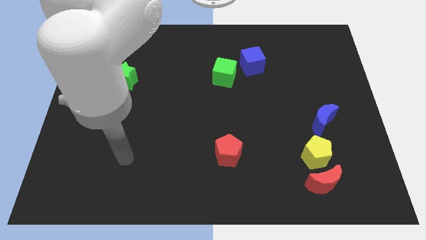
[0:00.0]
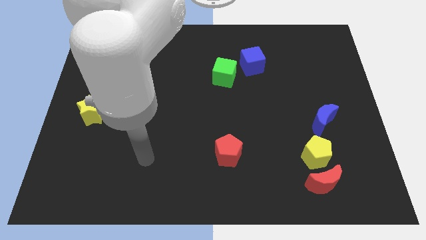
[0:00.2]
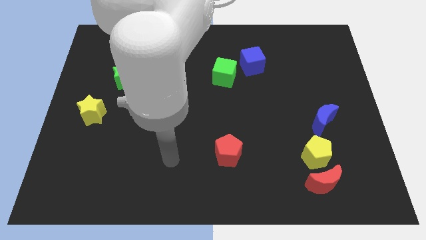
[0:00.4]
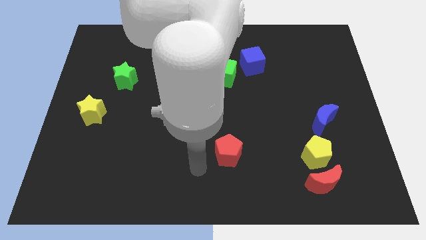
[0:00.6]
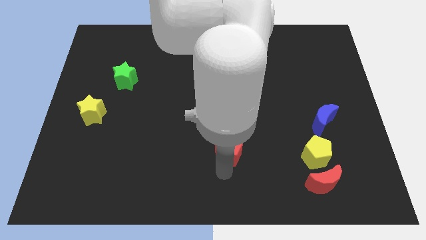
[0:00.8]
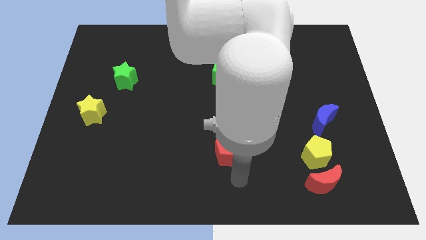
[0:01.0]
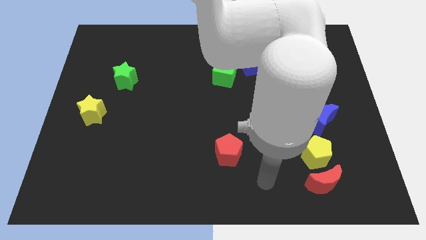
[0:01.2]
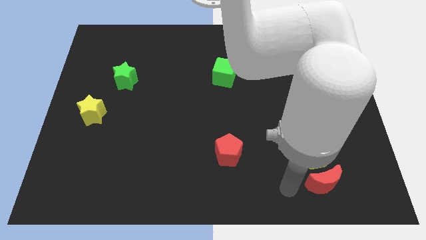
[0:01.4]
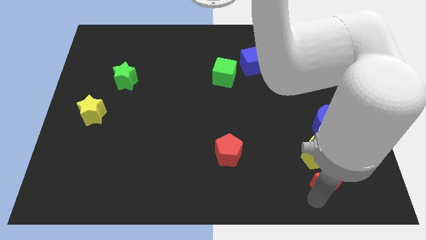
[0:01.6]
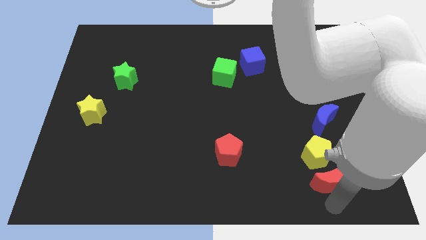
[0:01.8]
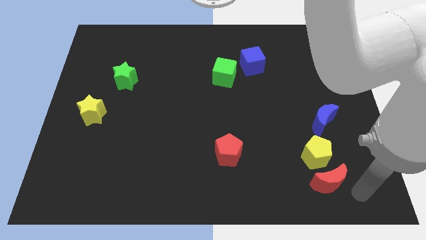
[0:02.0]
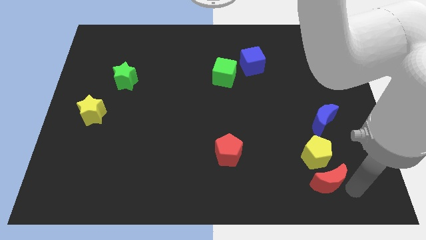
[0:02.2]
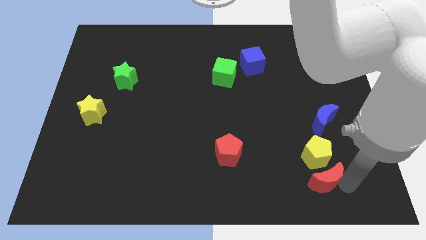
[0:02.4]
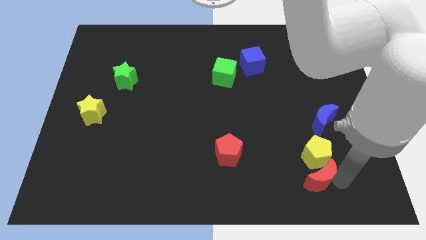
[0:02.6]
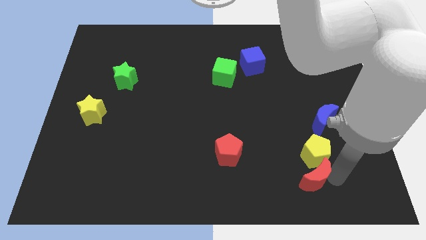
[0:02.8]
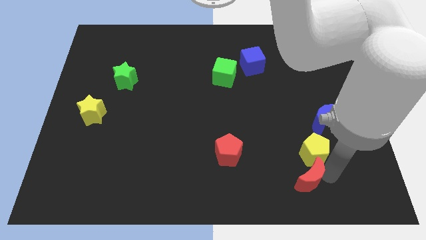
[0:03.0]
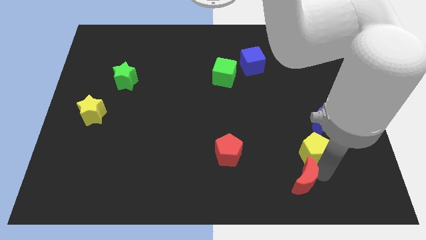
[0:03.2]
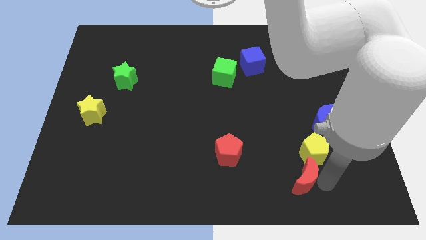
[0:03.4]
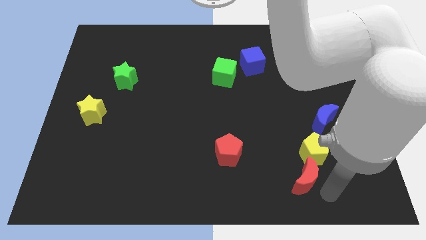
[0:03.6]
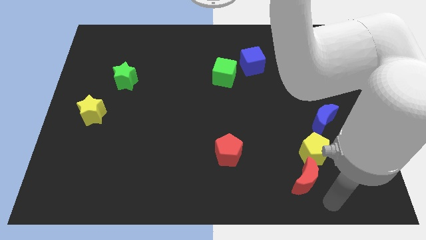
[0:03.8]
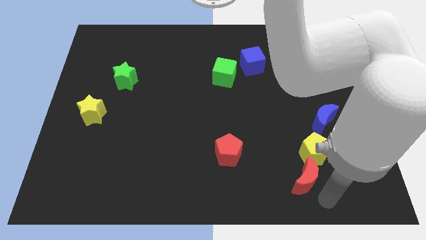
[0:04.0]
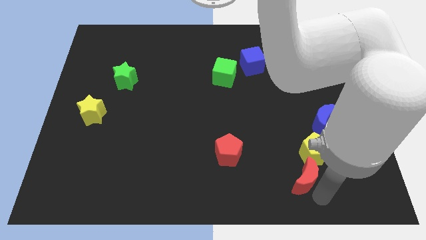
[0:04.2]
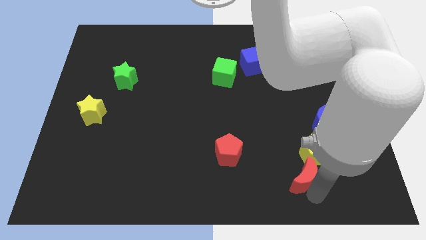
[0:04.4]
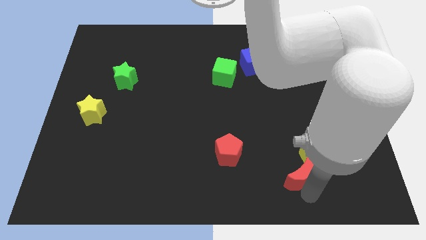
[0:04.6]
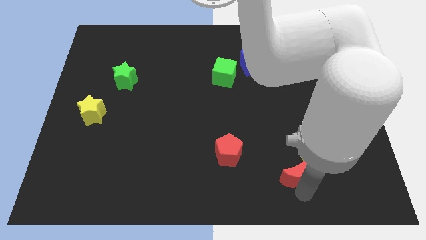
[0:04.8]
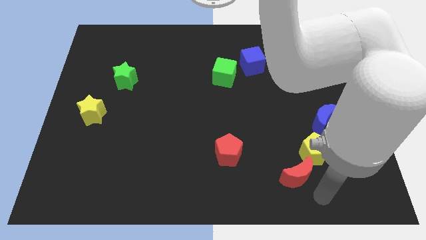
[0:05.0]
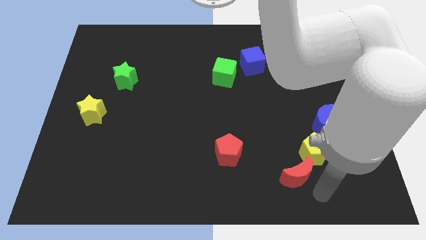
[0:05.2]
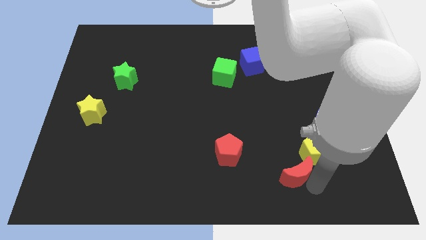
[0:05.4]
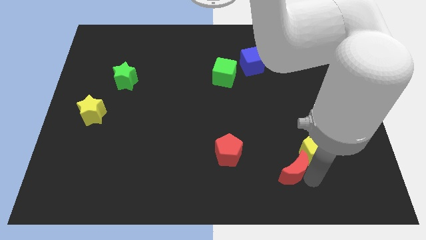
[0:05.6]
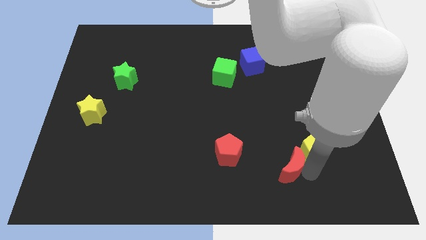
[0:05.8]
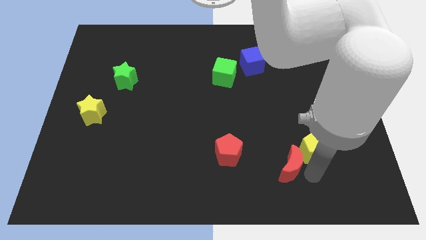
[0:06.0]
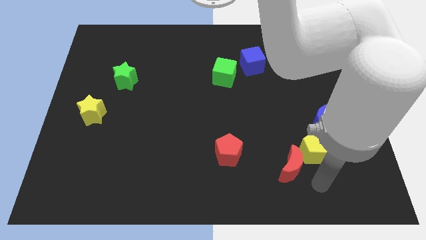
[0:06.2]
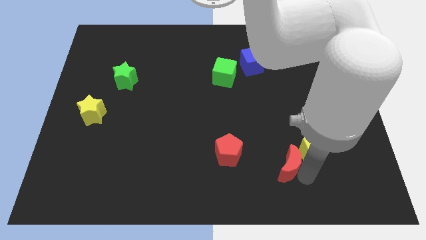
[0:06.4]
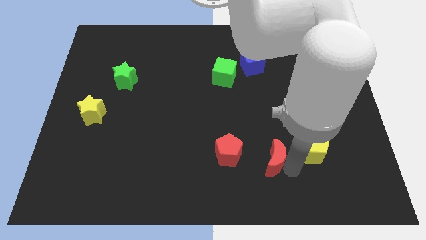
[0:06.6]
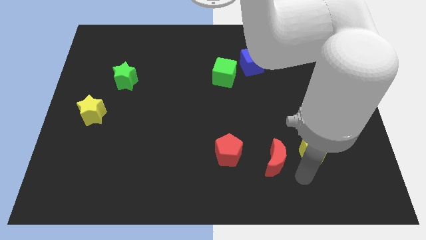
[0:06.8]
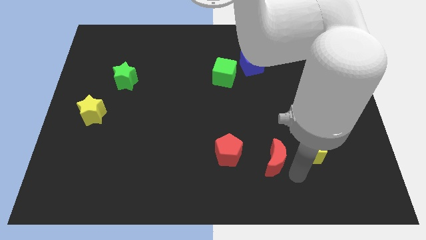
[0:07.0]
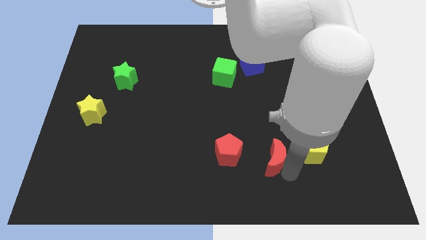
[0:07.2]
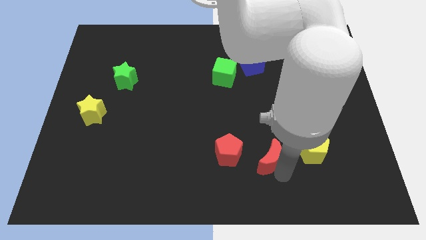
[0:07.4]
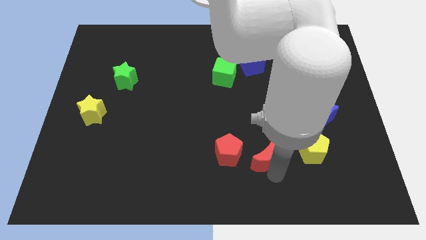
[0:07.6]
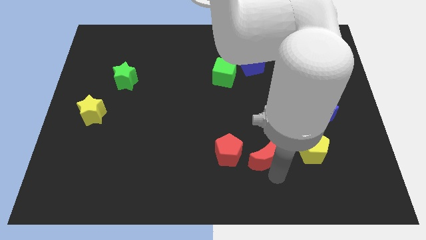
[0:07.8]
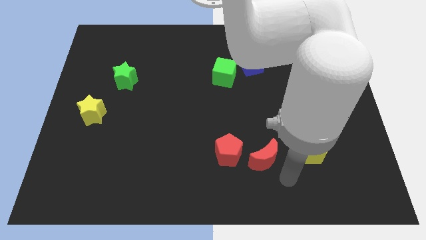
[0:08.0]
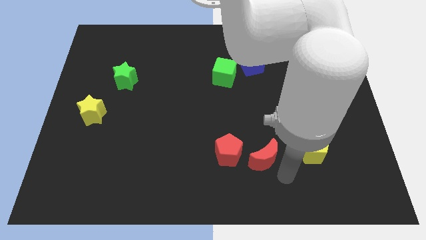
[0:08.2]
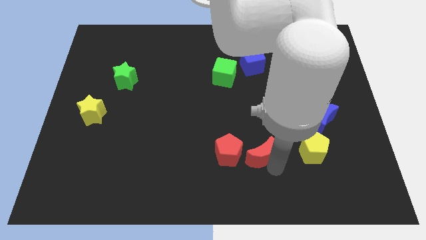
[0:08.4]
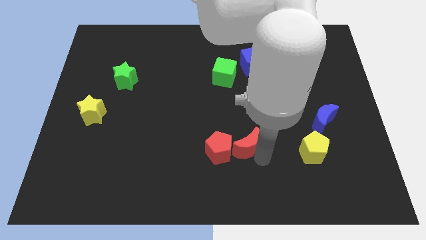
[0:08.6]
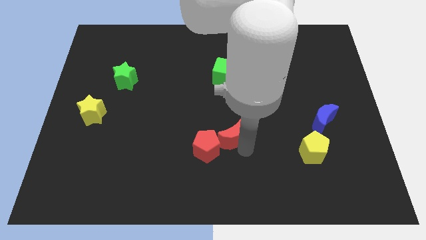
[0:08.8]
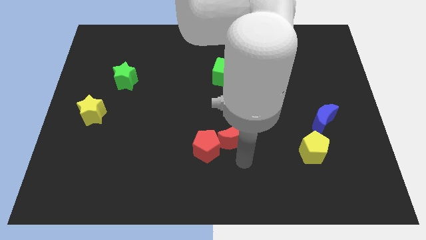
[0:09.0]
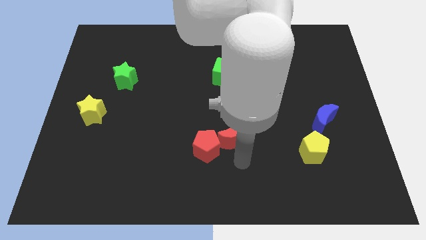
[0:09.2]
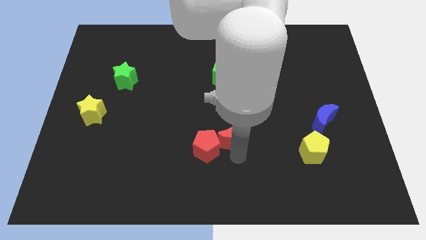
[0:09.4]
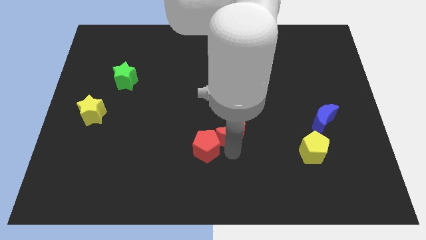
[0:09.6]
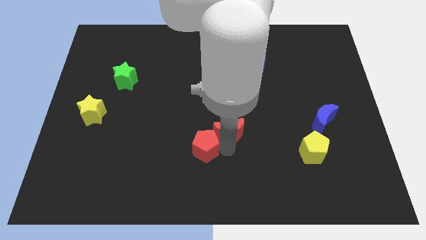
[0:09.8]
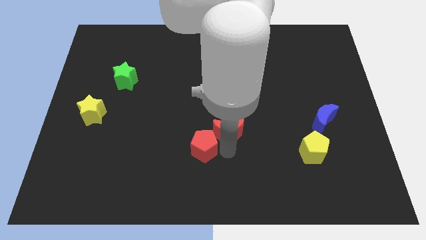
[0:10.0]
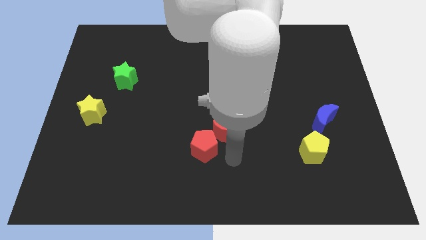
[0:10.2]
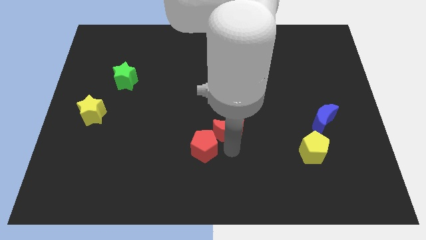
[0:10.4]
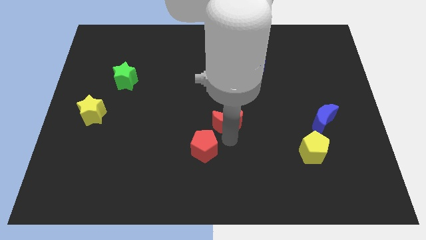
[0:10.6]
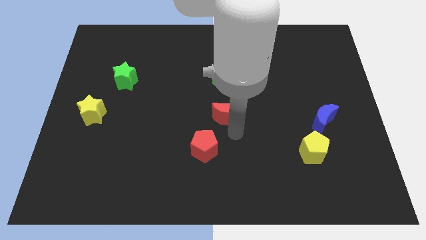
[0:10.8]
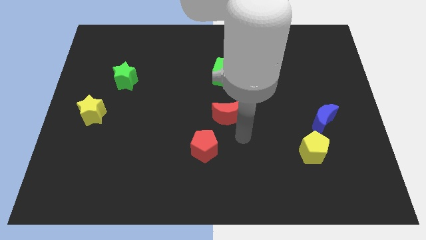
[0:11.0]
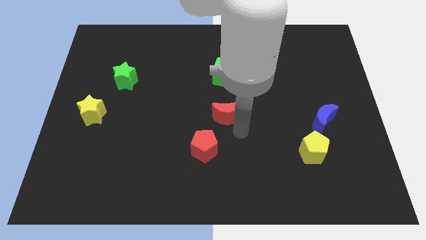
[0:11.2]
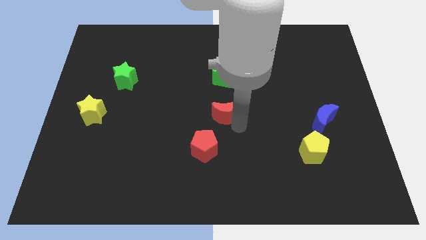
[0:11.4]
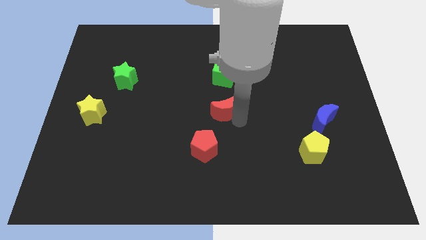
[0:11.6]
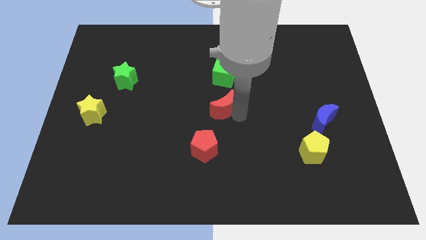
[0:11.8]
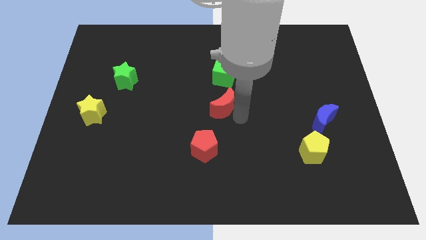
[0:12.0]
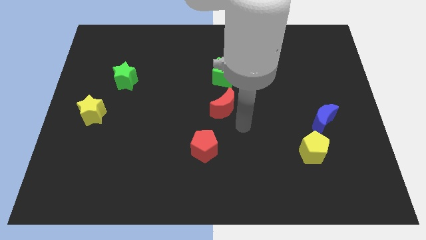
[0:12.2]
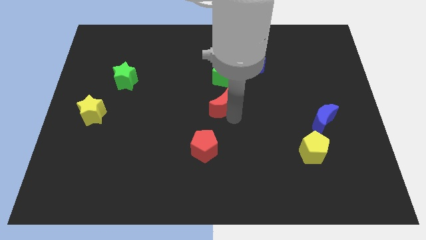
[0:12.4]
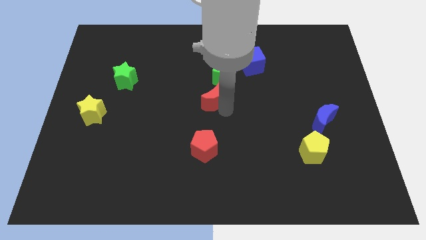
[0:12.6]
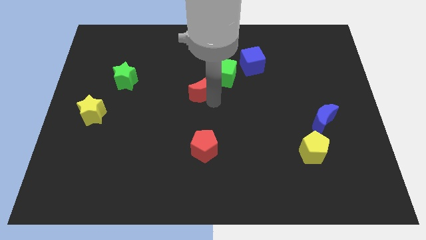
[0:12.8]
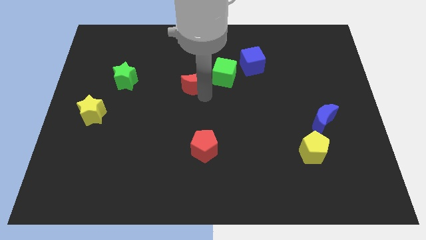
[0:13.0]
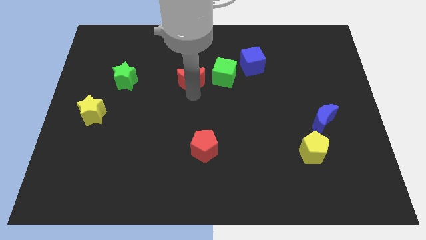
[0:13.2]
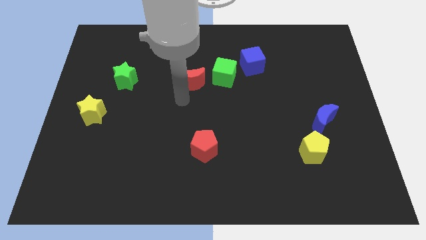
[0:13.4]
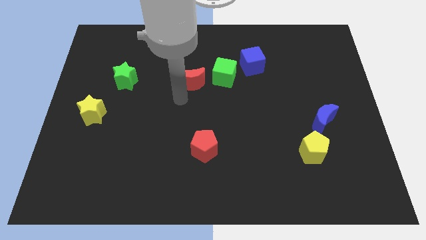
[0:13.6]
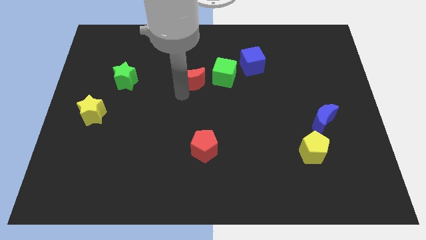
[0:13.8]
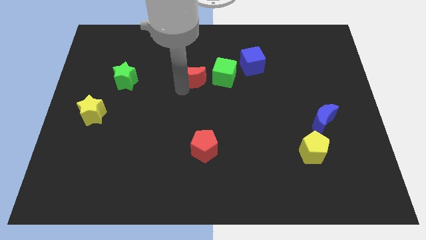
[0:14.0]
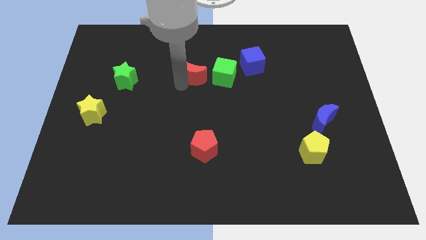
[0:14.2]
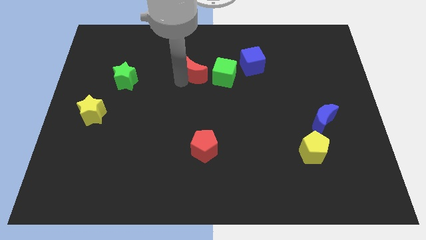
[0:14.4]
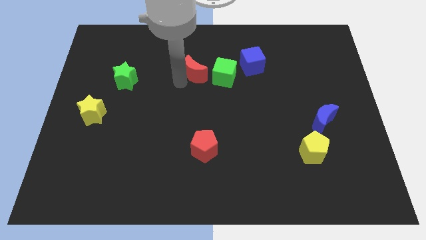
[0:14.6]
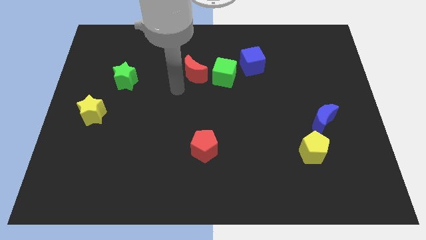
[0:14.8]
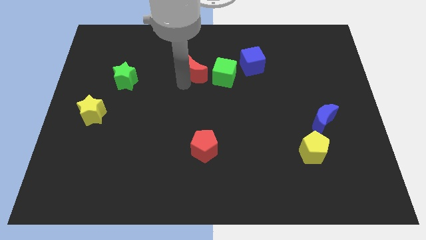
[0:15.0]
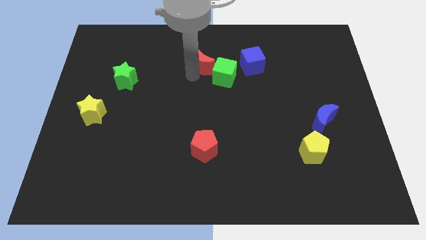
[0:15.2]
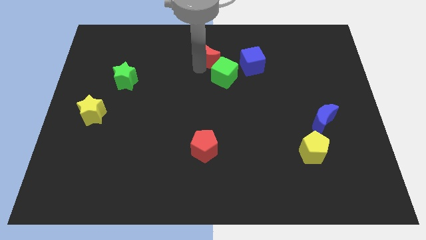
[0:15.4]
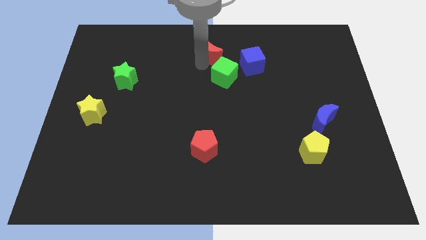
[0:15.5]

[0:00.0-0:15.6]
put the red moon to the top side
